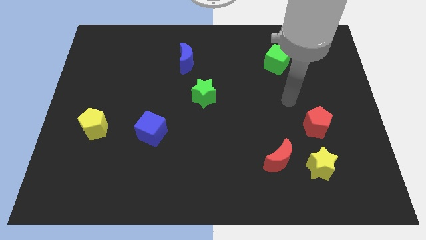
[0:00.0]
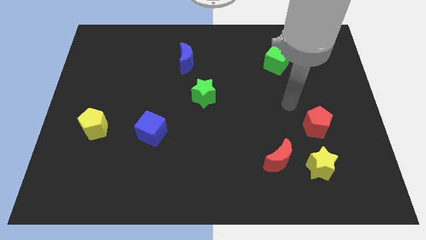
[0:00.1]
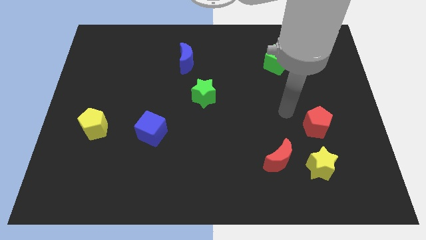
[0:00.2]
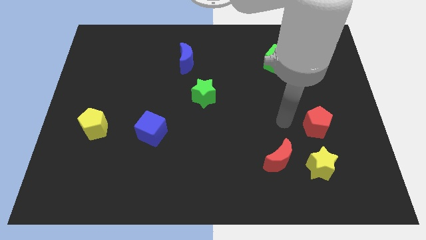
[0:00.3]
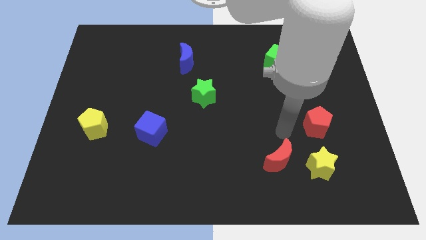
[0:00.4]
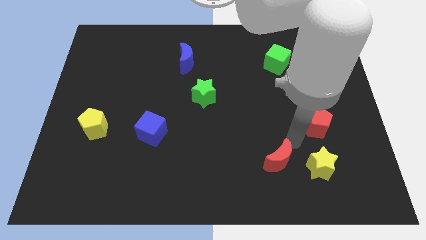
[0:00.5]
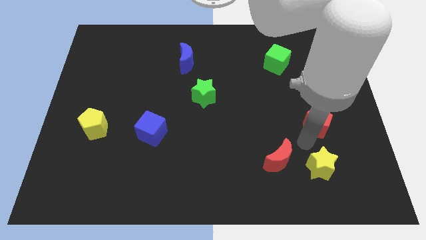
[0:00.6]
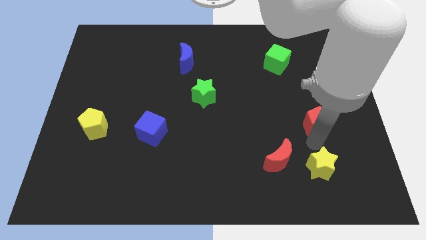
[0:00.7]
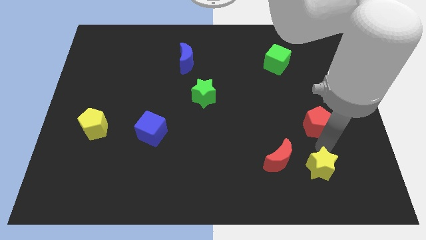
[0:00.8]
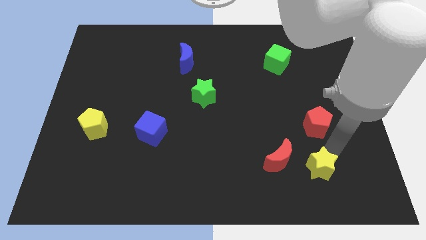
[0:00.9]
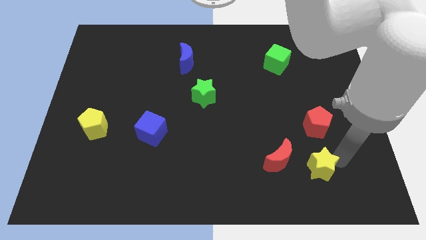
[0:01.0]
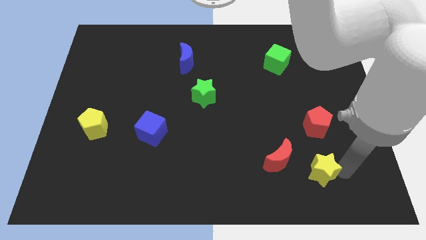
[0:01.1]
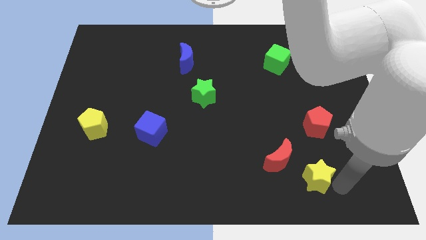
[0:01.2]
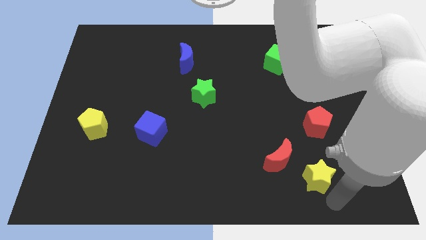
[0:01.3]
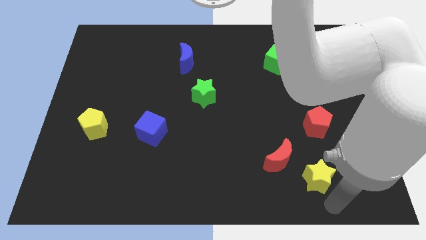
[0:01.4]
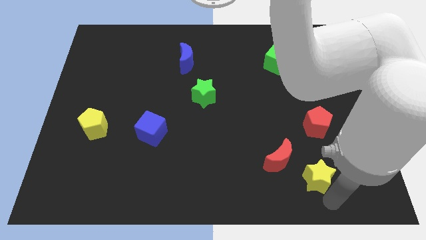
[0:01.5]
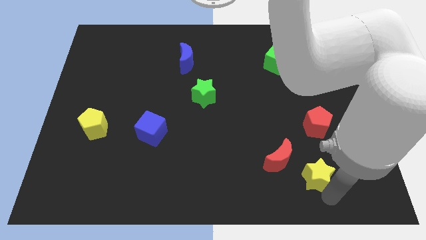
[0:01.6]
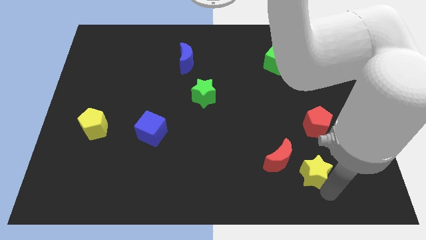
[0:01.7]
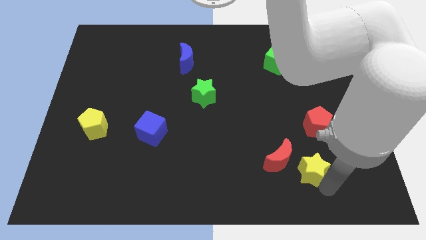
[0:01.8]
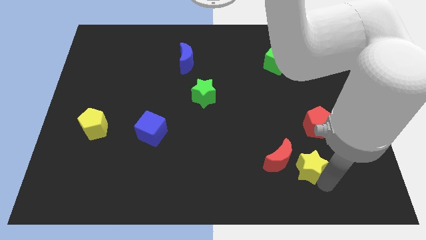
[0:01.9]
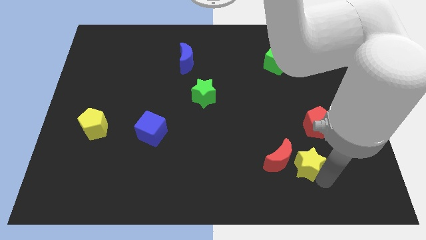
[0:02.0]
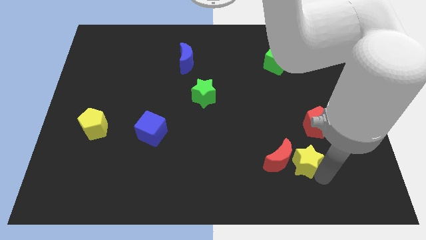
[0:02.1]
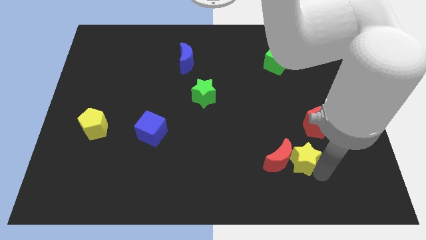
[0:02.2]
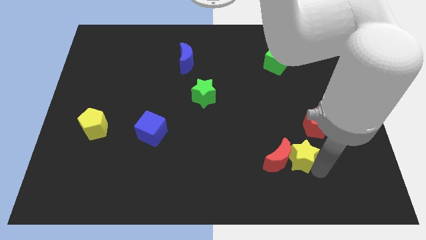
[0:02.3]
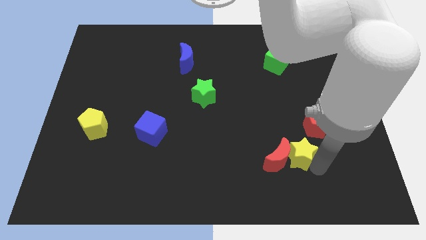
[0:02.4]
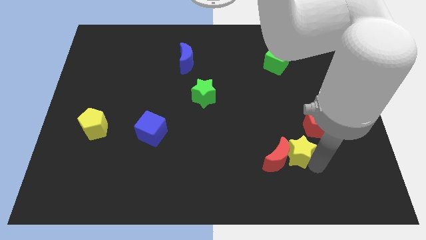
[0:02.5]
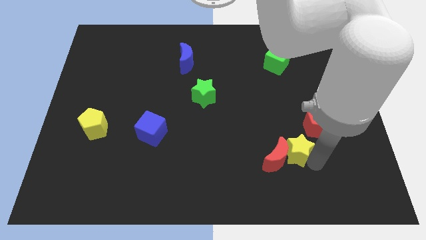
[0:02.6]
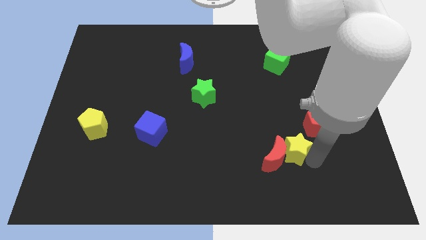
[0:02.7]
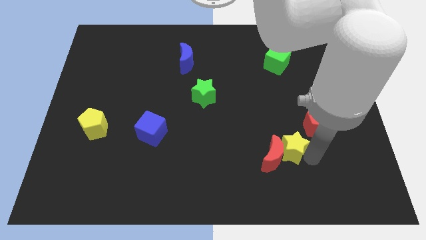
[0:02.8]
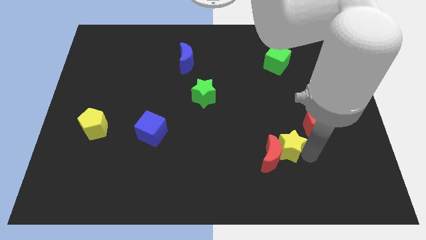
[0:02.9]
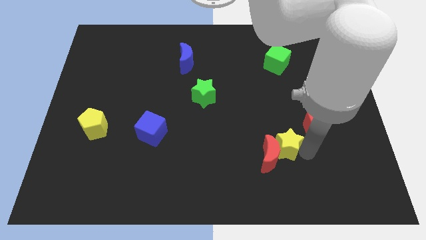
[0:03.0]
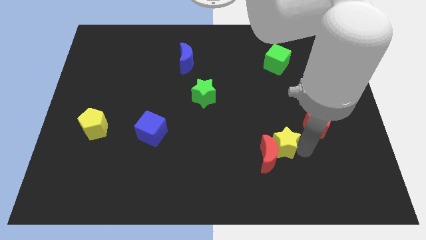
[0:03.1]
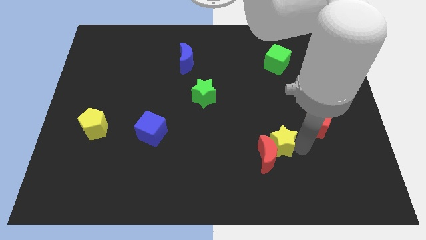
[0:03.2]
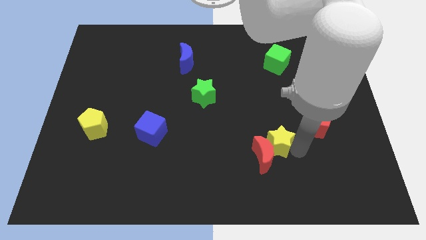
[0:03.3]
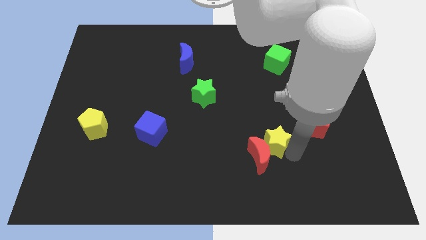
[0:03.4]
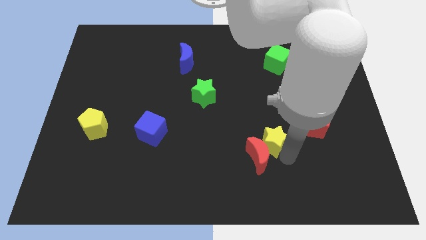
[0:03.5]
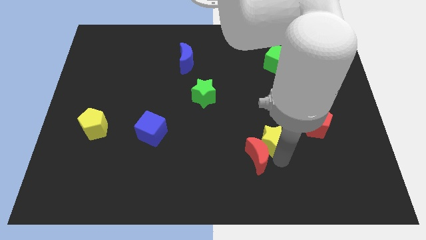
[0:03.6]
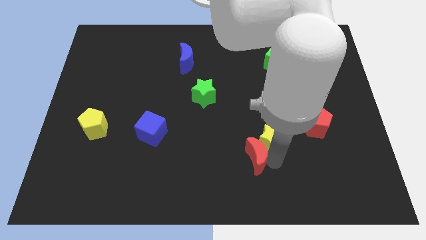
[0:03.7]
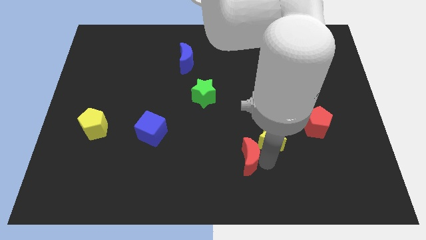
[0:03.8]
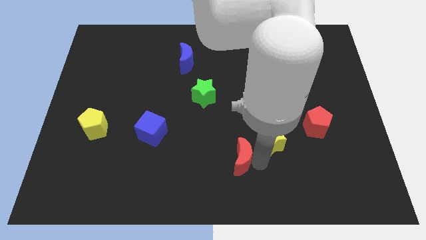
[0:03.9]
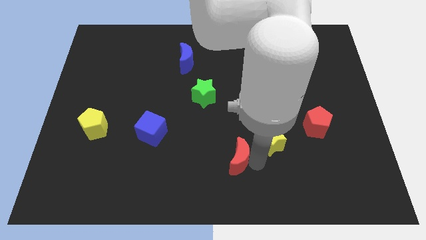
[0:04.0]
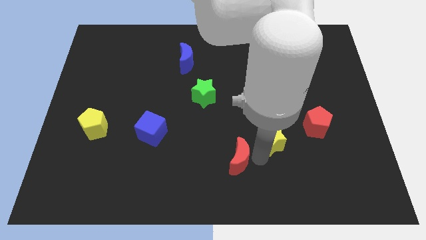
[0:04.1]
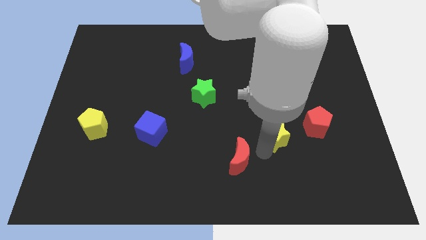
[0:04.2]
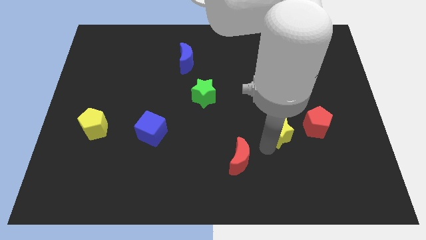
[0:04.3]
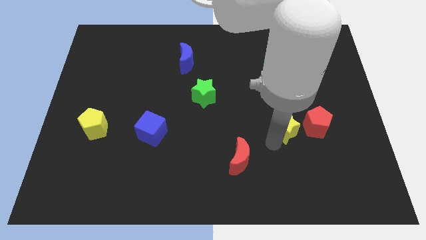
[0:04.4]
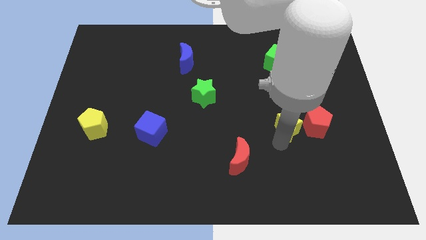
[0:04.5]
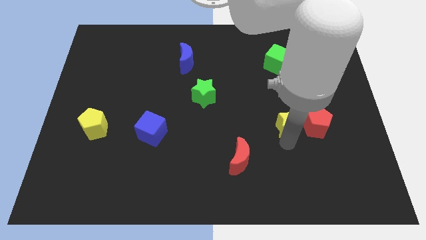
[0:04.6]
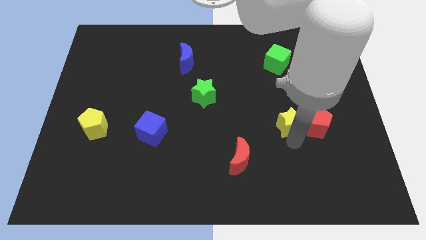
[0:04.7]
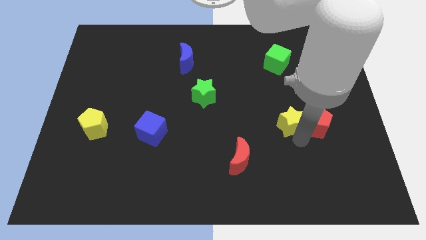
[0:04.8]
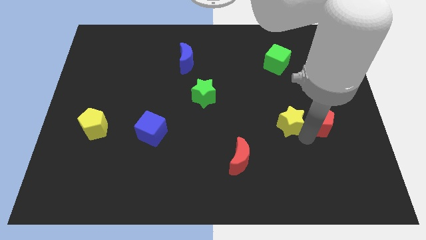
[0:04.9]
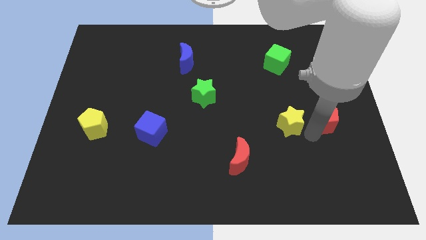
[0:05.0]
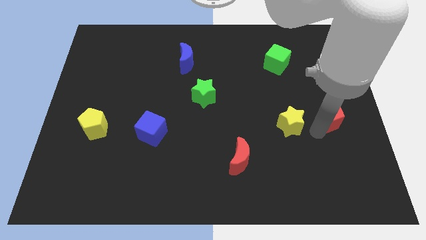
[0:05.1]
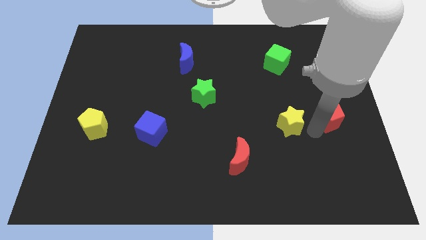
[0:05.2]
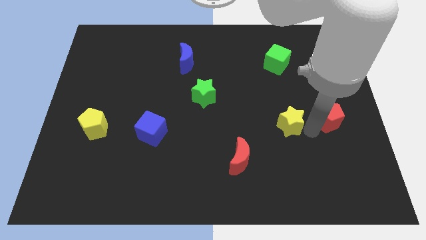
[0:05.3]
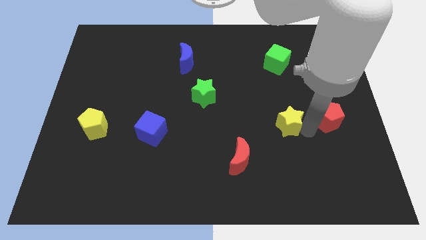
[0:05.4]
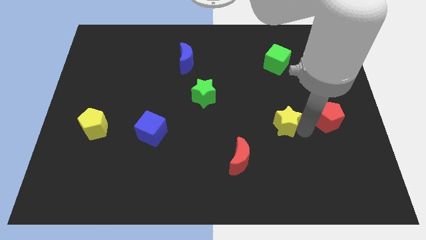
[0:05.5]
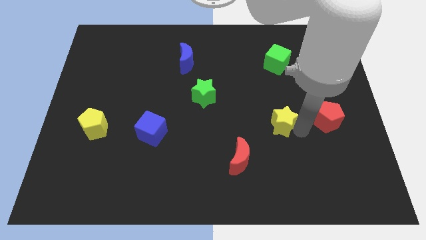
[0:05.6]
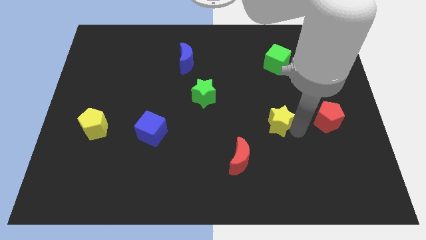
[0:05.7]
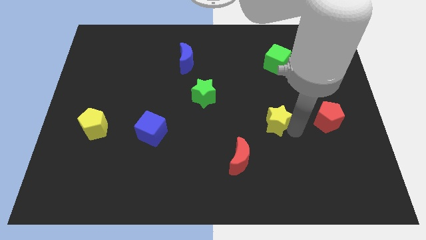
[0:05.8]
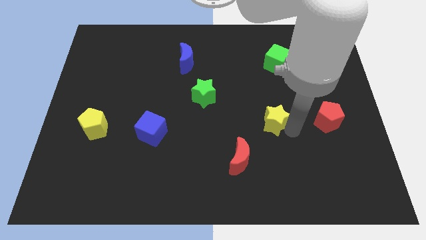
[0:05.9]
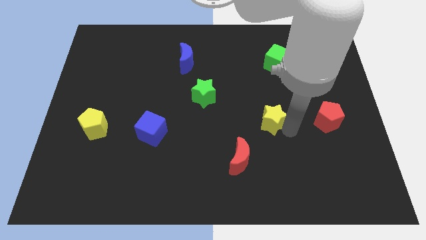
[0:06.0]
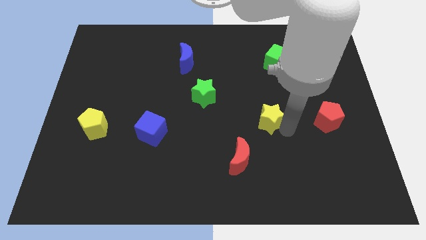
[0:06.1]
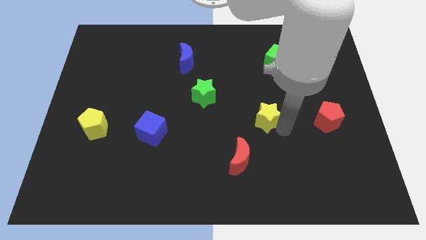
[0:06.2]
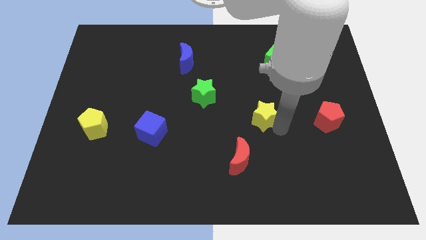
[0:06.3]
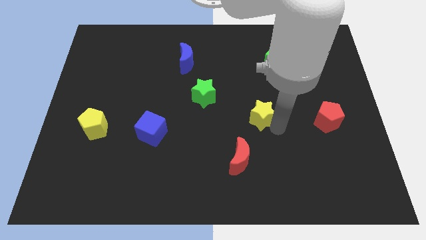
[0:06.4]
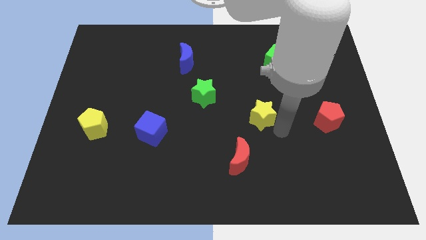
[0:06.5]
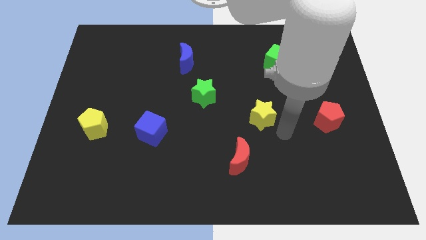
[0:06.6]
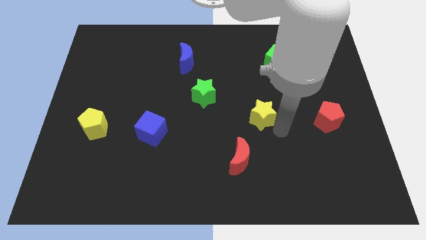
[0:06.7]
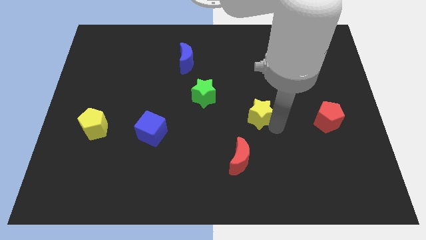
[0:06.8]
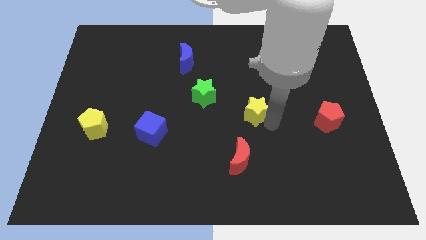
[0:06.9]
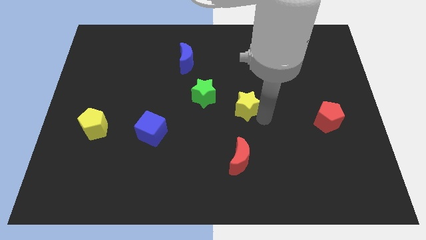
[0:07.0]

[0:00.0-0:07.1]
move the yellow star upwards and to the left

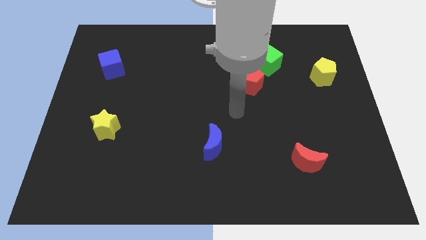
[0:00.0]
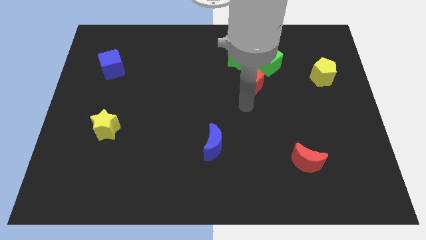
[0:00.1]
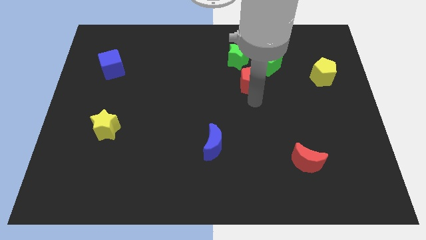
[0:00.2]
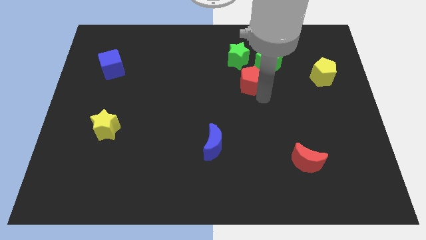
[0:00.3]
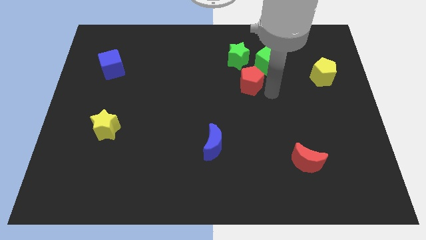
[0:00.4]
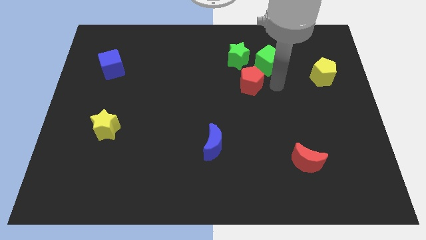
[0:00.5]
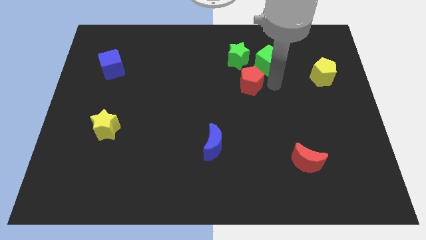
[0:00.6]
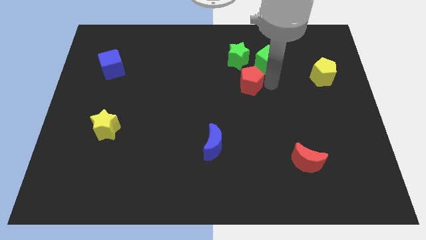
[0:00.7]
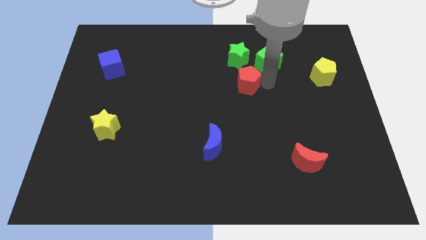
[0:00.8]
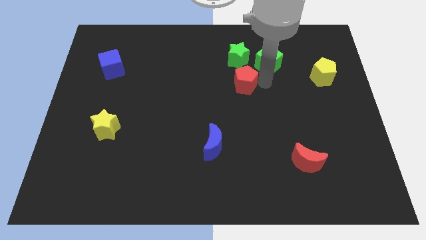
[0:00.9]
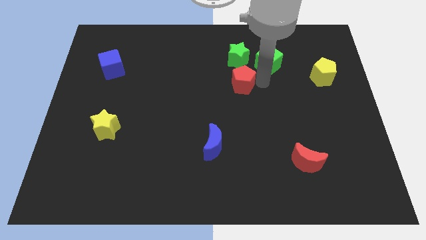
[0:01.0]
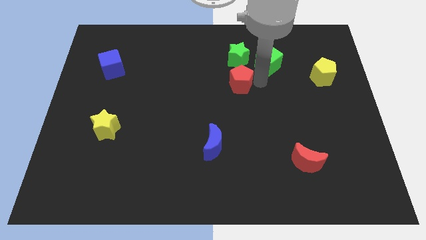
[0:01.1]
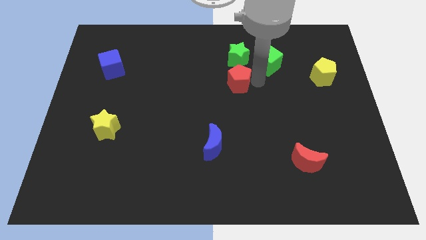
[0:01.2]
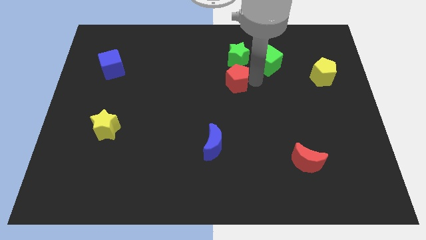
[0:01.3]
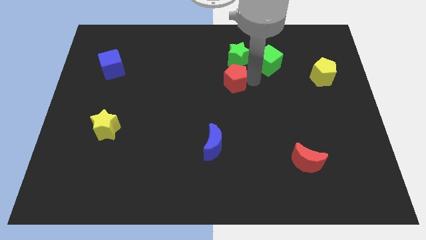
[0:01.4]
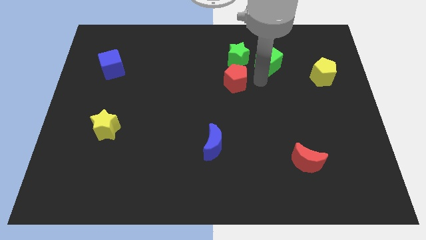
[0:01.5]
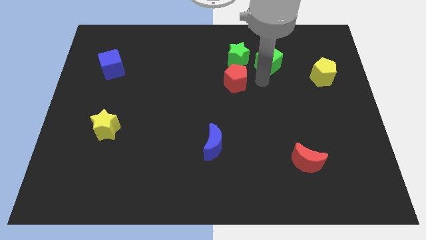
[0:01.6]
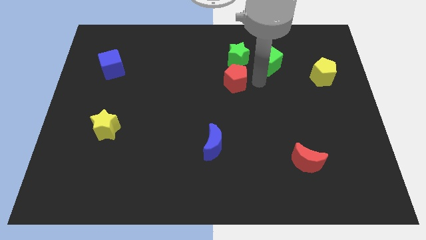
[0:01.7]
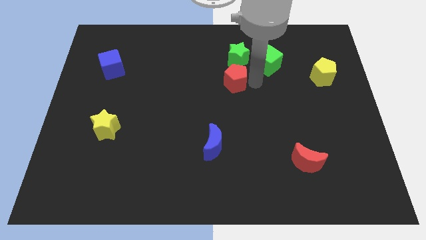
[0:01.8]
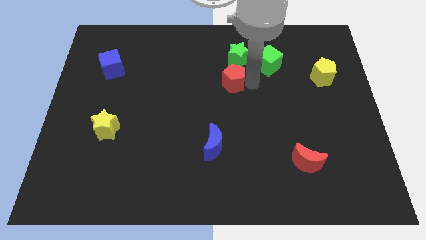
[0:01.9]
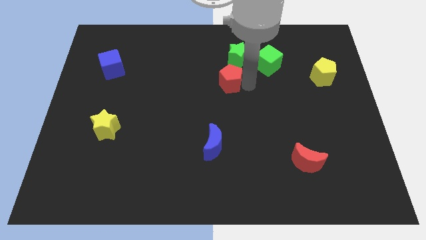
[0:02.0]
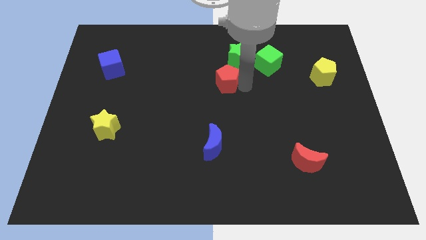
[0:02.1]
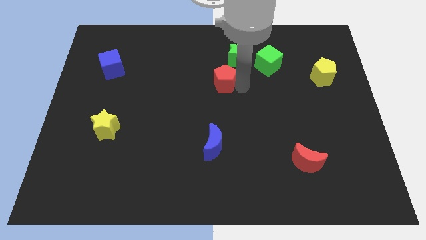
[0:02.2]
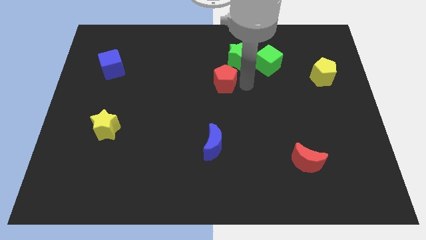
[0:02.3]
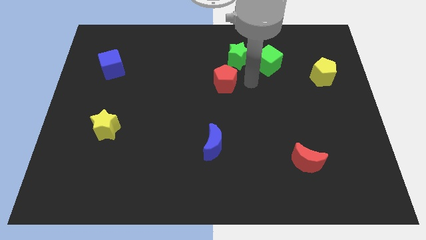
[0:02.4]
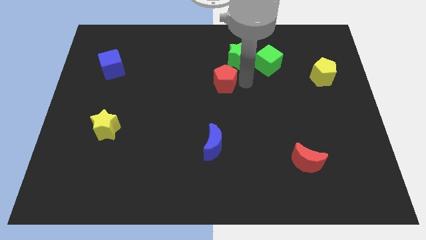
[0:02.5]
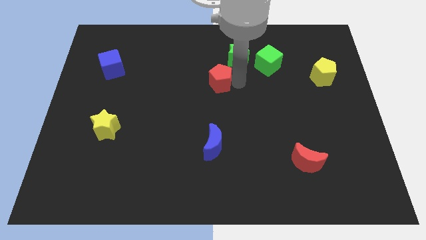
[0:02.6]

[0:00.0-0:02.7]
move the red pentagon a bit to the left
